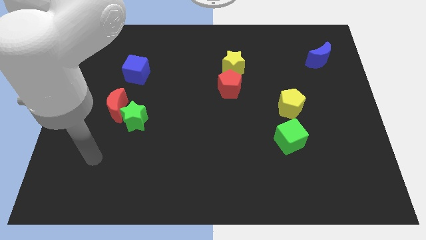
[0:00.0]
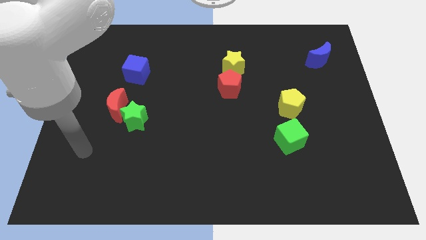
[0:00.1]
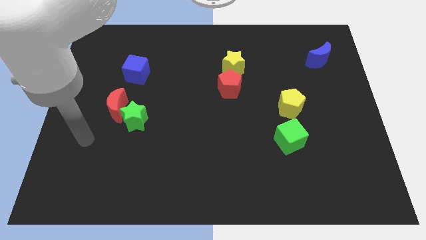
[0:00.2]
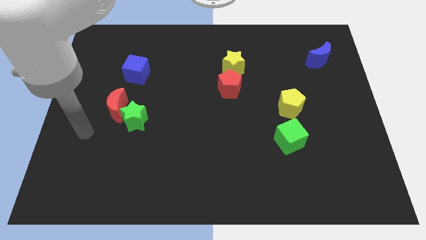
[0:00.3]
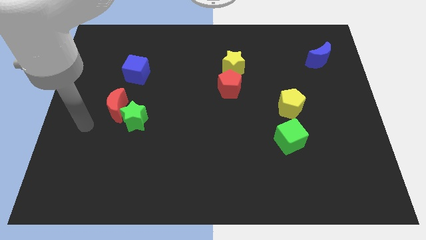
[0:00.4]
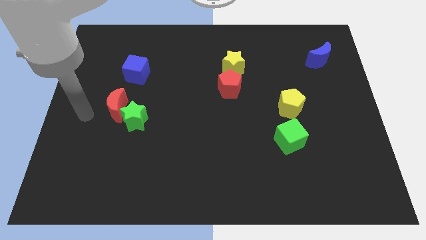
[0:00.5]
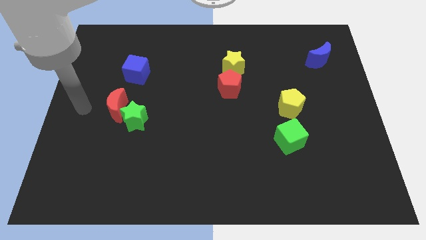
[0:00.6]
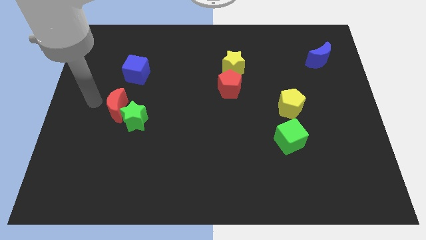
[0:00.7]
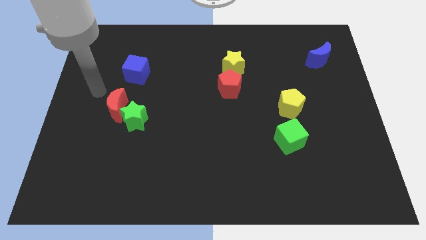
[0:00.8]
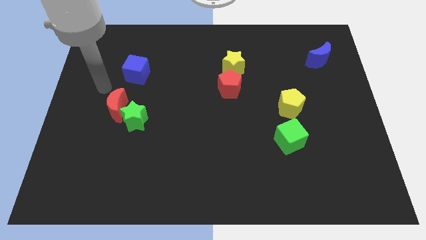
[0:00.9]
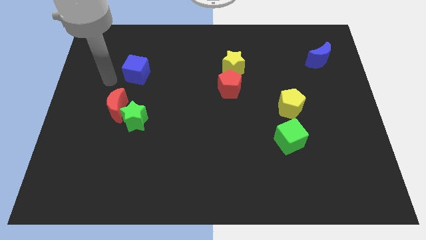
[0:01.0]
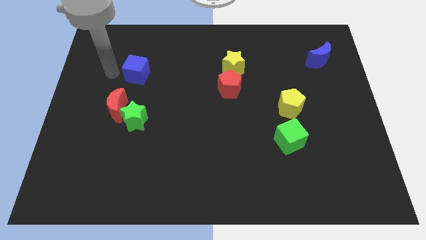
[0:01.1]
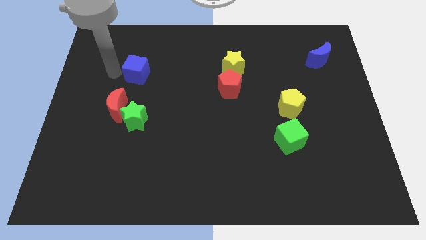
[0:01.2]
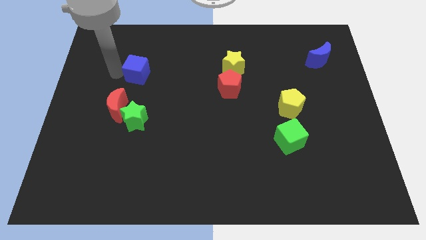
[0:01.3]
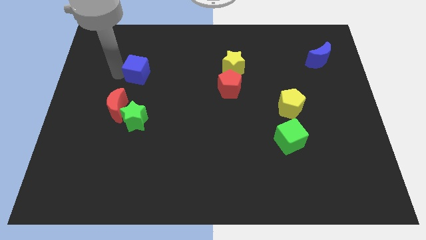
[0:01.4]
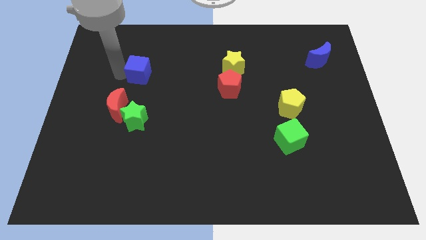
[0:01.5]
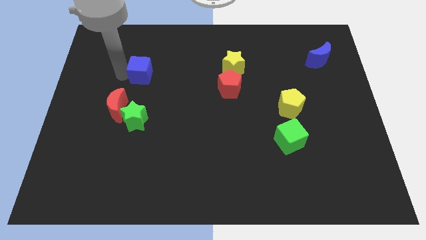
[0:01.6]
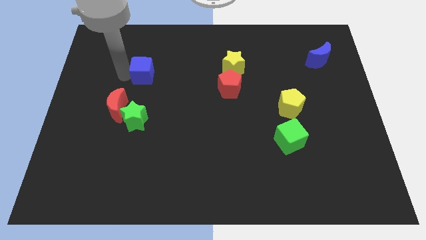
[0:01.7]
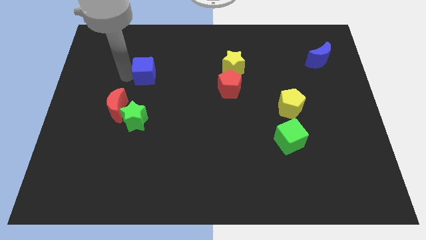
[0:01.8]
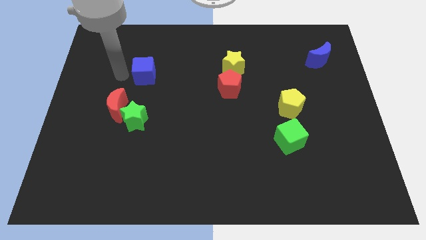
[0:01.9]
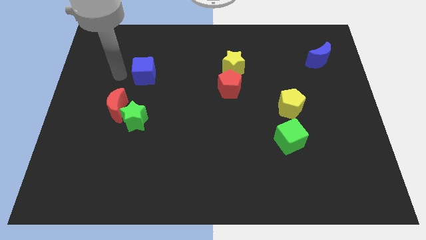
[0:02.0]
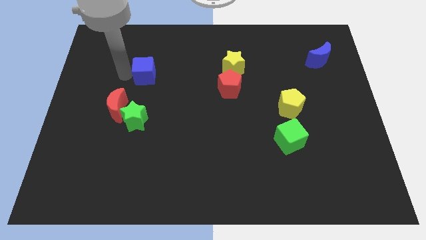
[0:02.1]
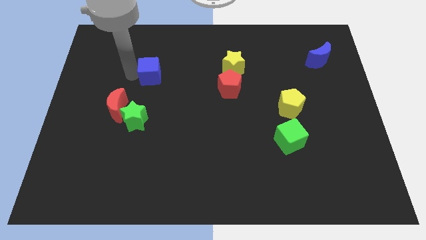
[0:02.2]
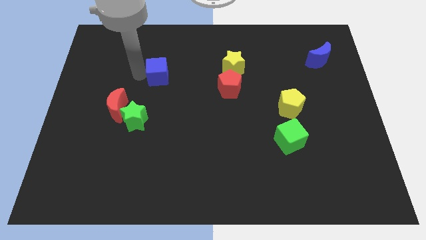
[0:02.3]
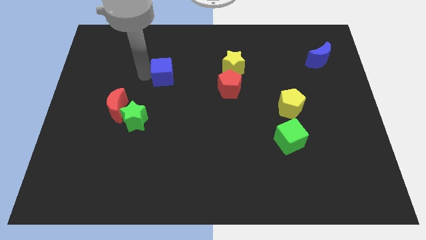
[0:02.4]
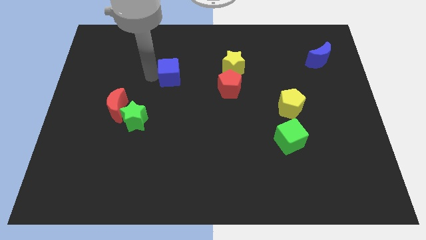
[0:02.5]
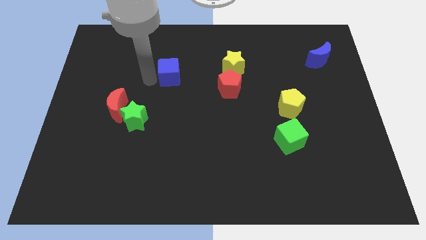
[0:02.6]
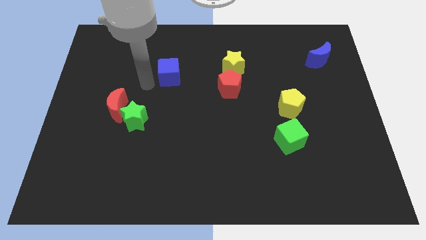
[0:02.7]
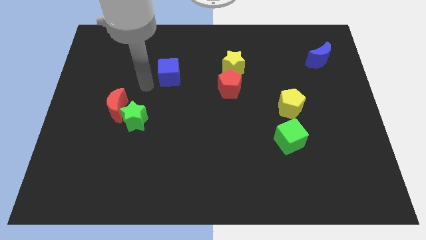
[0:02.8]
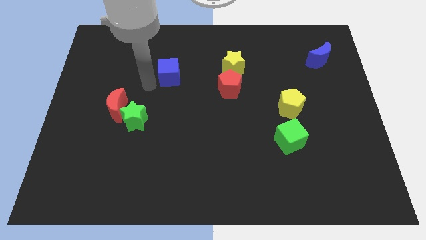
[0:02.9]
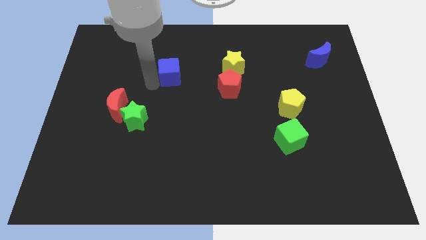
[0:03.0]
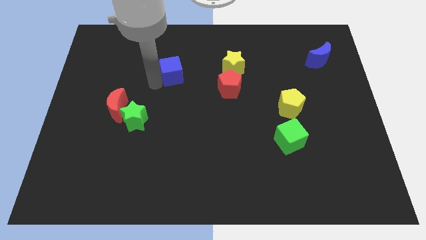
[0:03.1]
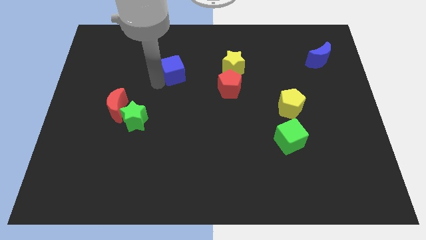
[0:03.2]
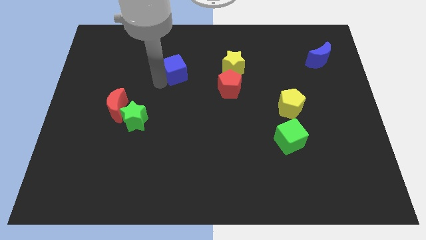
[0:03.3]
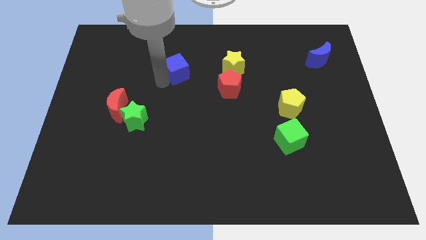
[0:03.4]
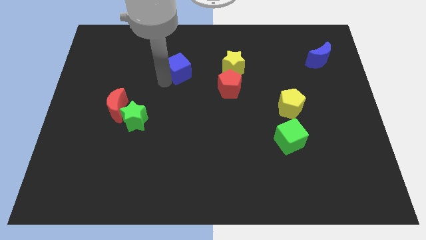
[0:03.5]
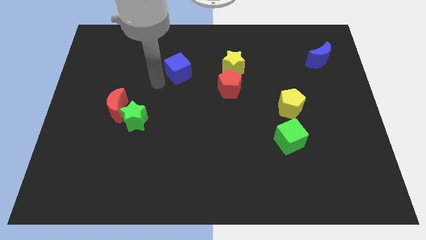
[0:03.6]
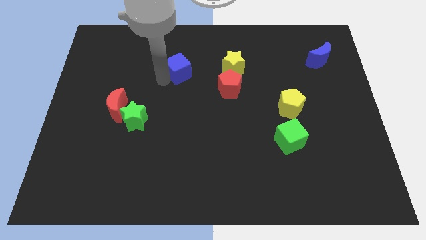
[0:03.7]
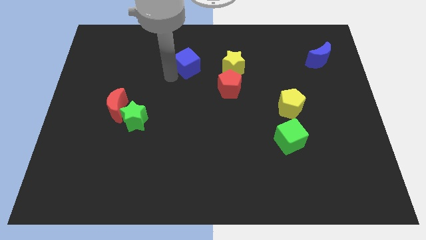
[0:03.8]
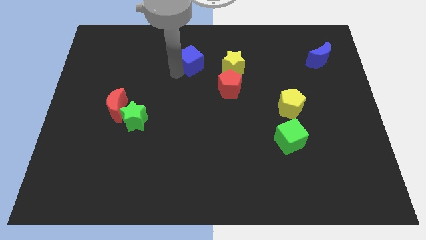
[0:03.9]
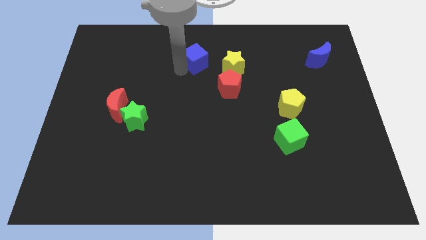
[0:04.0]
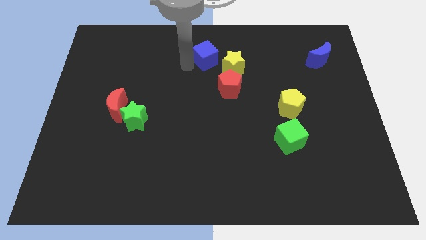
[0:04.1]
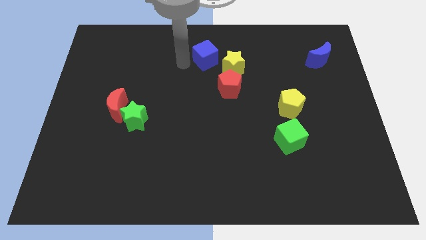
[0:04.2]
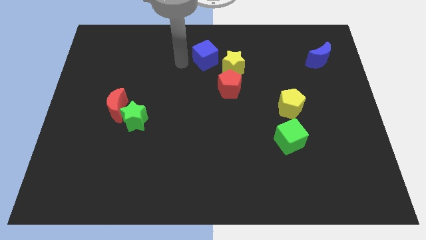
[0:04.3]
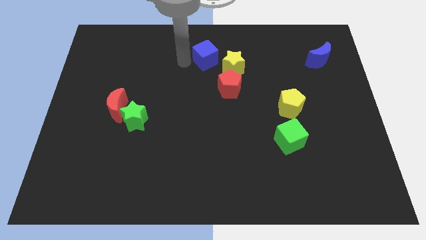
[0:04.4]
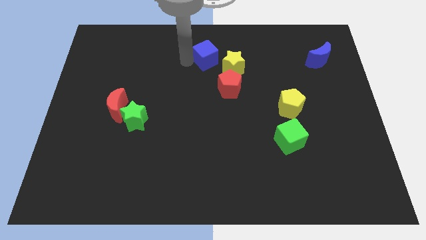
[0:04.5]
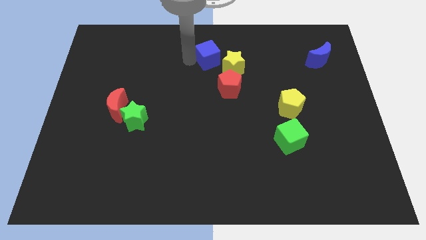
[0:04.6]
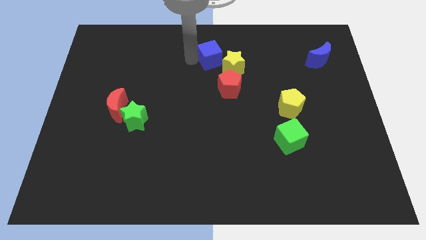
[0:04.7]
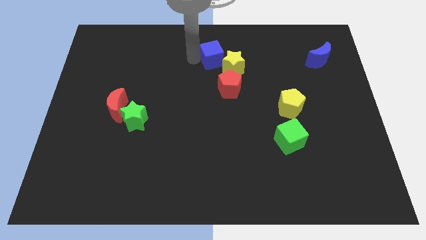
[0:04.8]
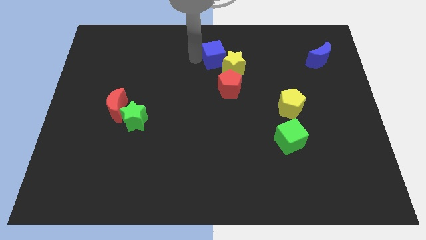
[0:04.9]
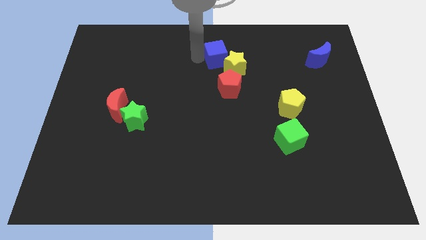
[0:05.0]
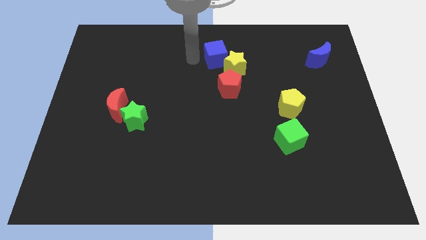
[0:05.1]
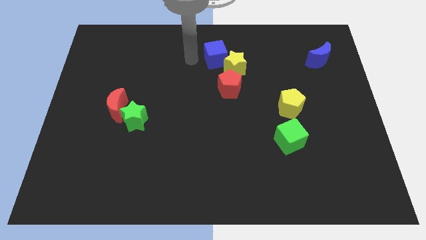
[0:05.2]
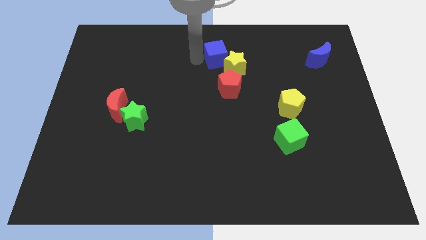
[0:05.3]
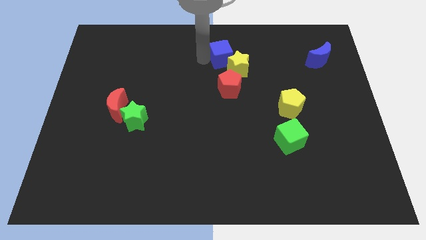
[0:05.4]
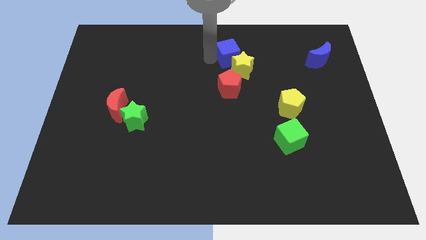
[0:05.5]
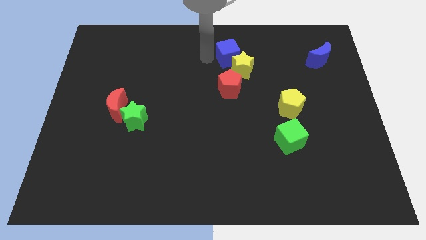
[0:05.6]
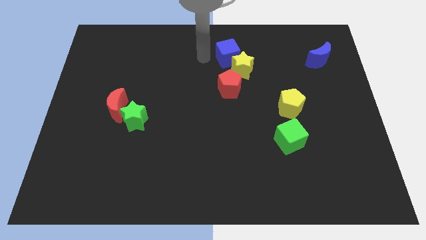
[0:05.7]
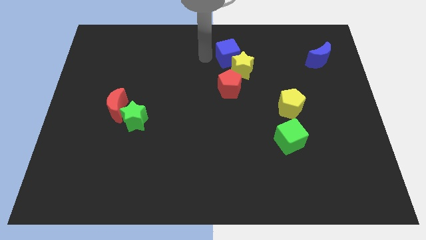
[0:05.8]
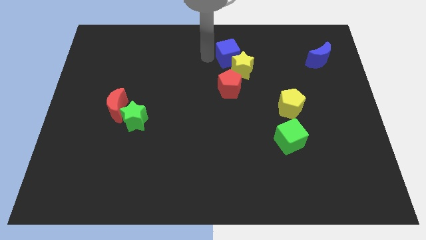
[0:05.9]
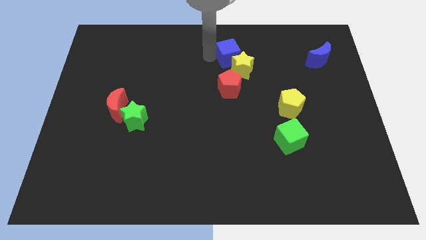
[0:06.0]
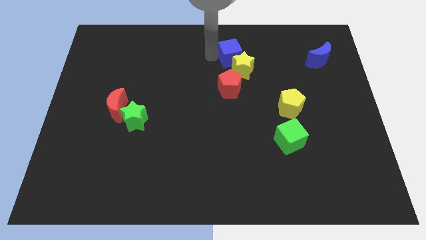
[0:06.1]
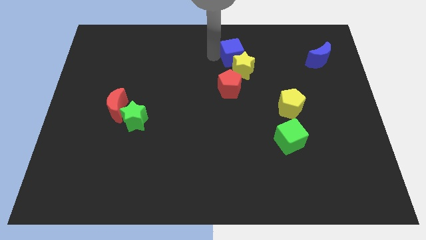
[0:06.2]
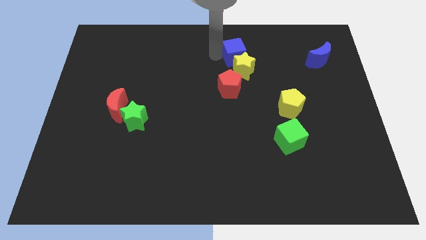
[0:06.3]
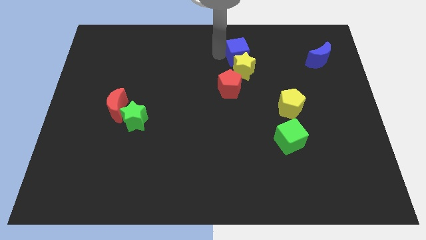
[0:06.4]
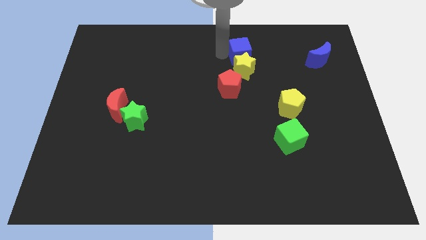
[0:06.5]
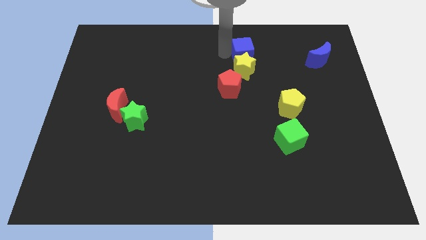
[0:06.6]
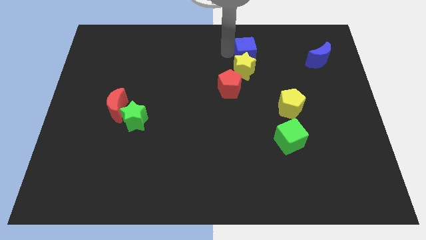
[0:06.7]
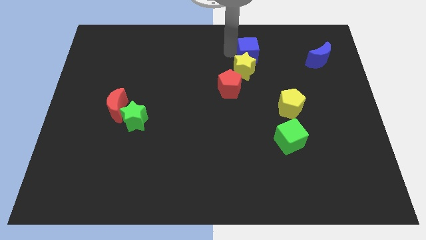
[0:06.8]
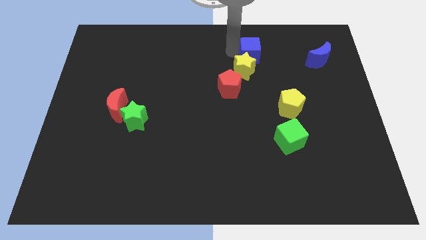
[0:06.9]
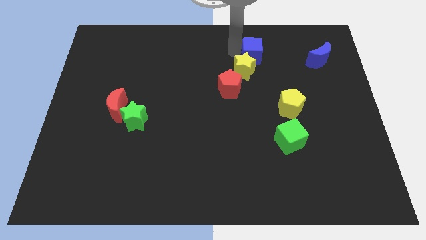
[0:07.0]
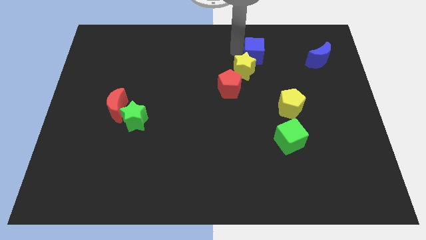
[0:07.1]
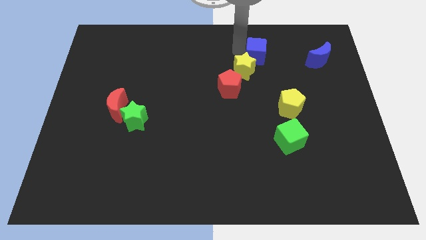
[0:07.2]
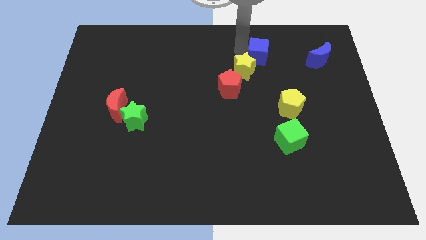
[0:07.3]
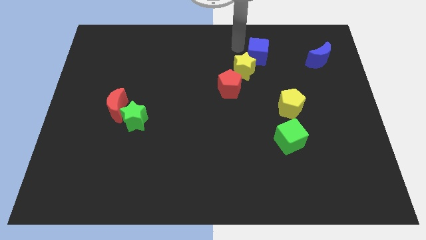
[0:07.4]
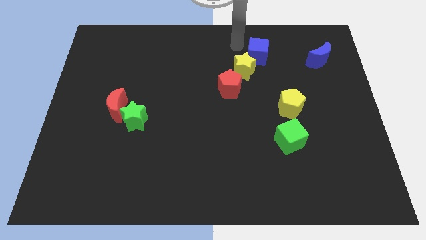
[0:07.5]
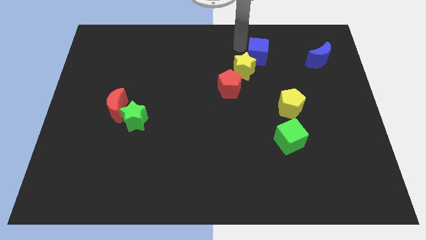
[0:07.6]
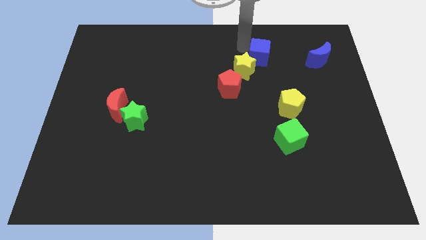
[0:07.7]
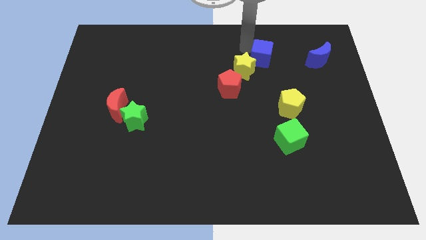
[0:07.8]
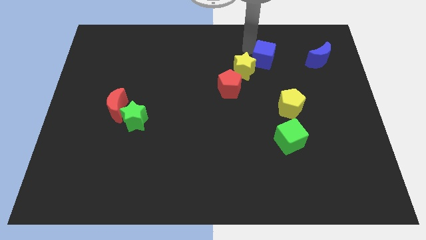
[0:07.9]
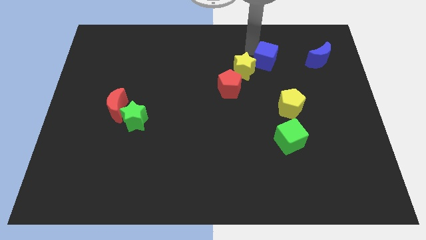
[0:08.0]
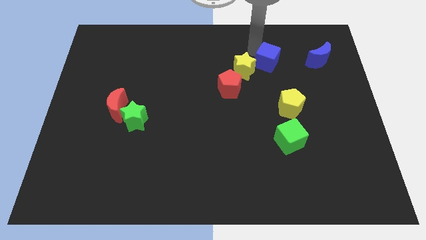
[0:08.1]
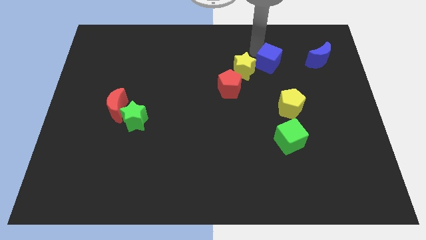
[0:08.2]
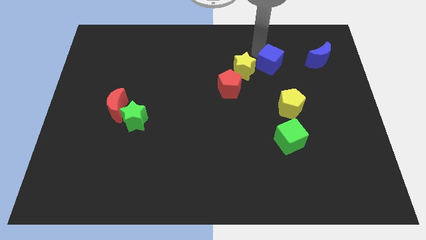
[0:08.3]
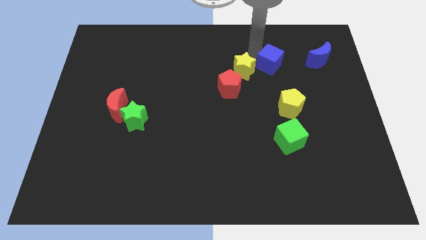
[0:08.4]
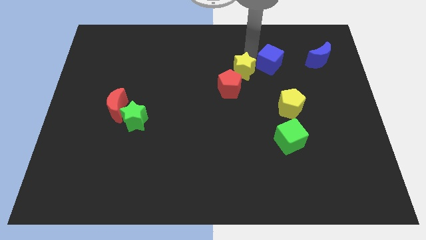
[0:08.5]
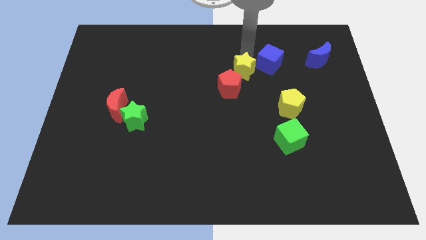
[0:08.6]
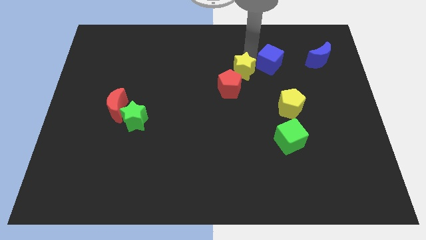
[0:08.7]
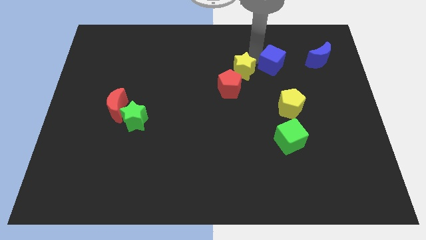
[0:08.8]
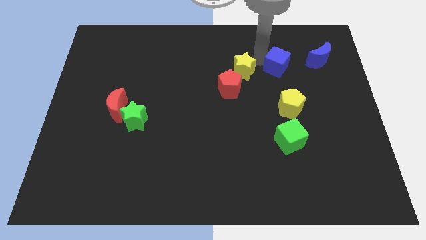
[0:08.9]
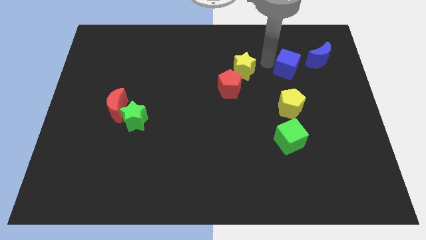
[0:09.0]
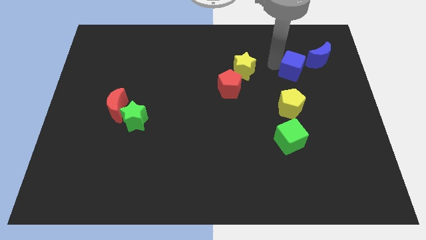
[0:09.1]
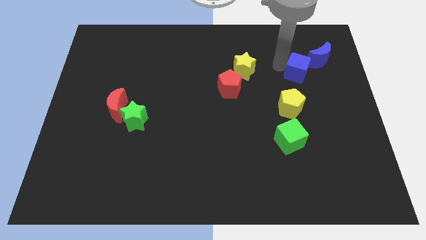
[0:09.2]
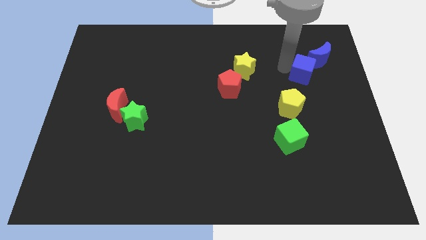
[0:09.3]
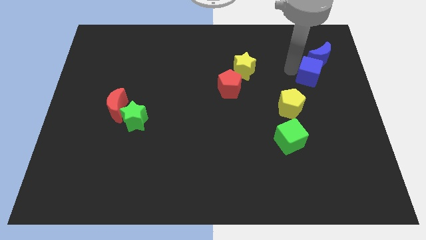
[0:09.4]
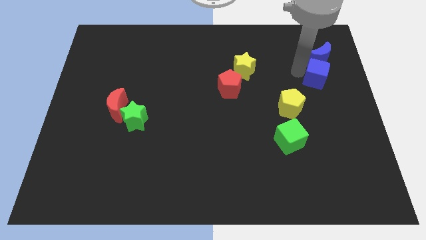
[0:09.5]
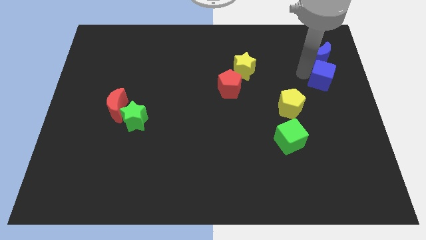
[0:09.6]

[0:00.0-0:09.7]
move the blue cube to the right side
